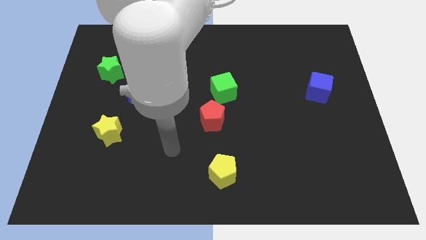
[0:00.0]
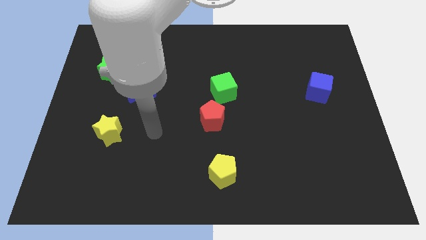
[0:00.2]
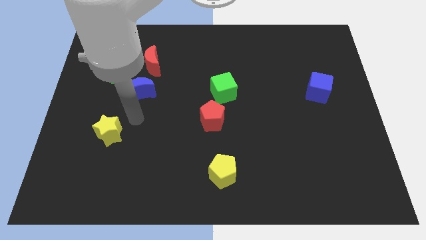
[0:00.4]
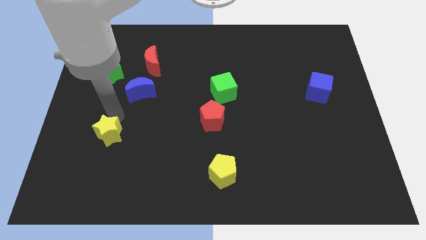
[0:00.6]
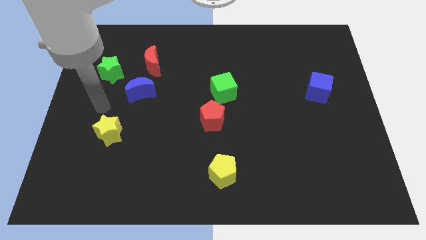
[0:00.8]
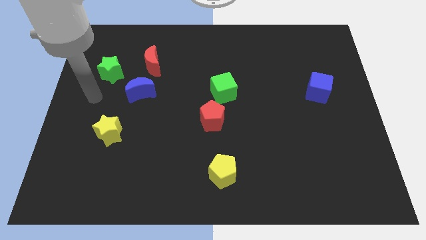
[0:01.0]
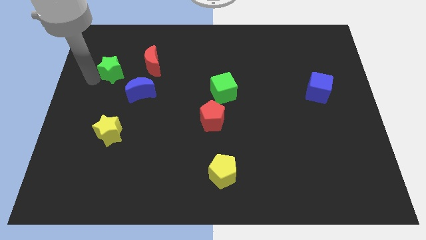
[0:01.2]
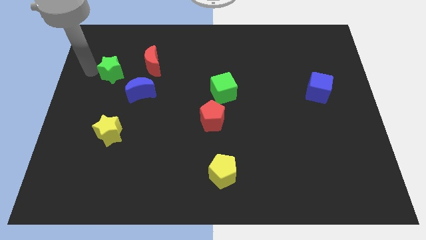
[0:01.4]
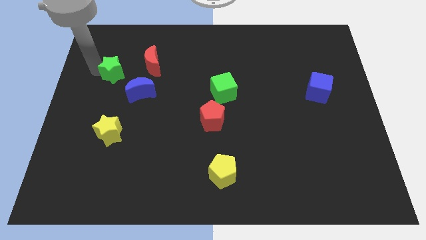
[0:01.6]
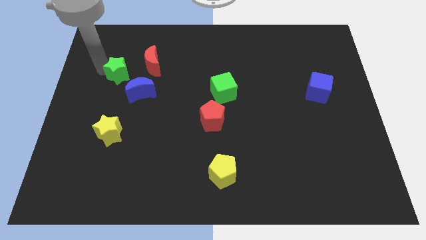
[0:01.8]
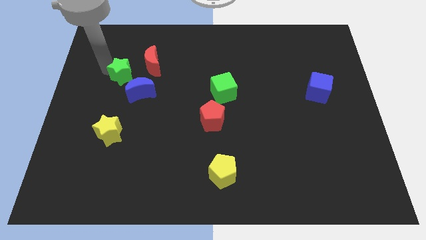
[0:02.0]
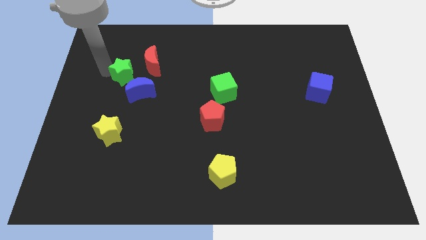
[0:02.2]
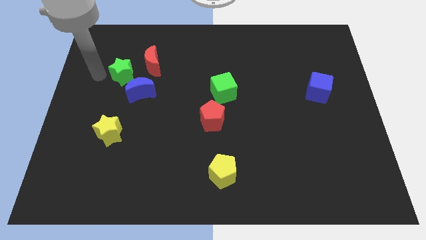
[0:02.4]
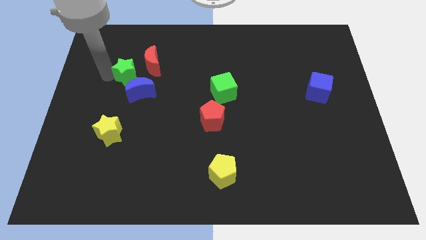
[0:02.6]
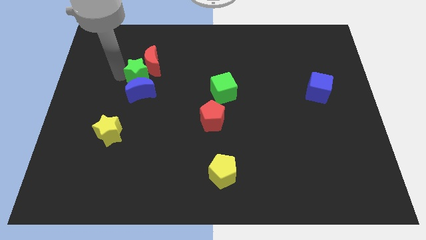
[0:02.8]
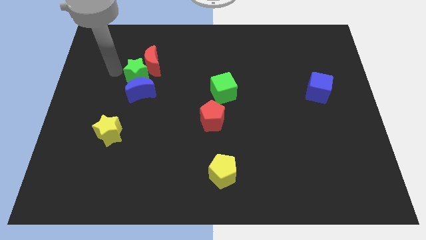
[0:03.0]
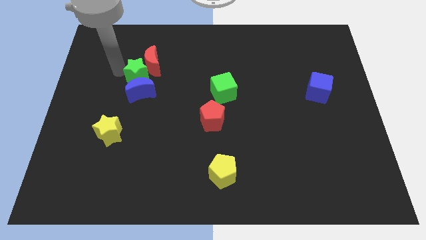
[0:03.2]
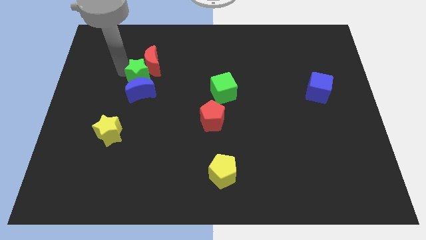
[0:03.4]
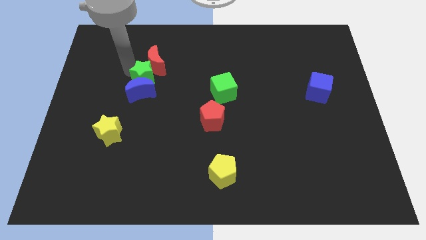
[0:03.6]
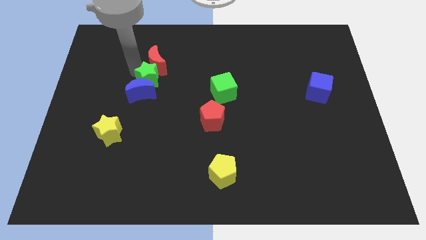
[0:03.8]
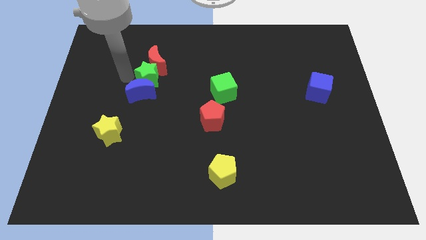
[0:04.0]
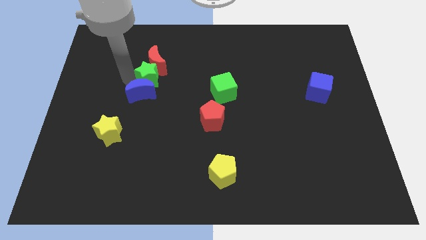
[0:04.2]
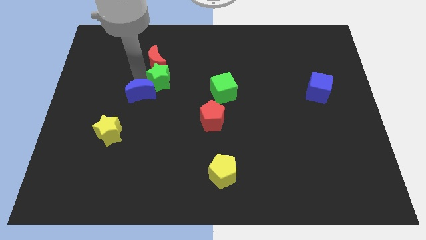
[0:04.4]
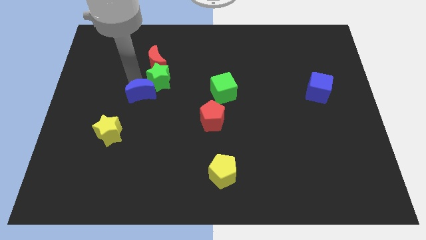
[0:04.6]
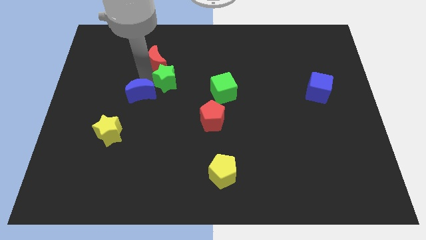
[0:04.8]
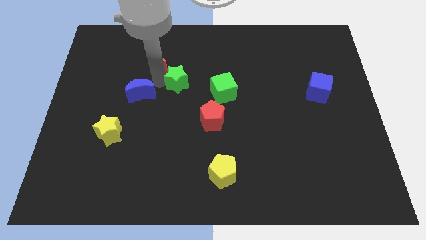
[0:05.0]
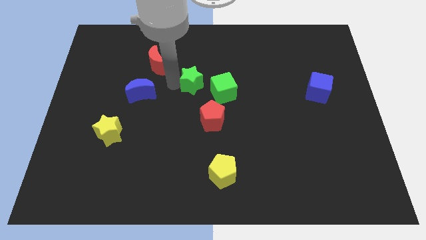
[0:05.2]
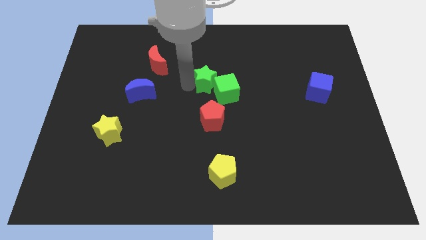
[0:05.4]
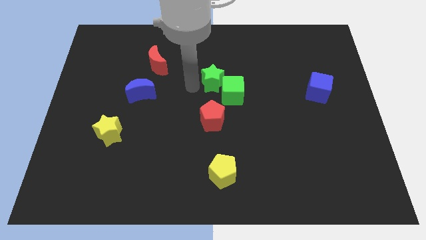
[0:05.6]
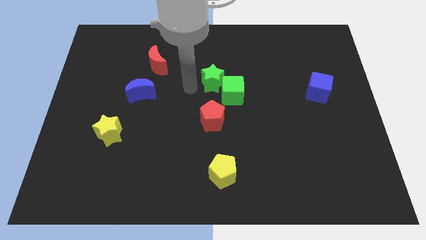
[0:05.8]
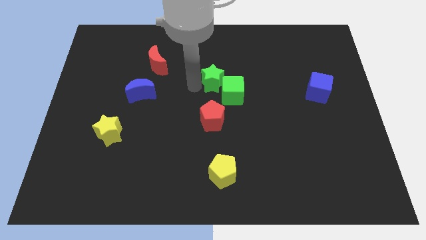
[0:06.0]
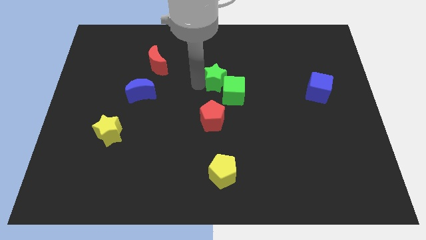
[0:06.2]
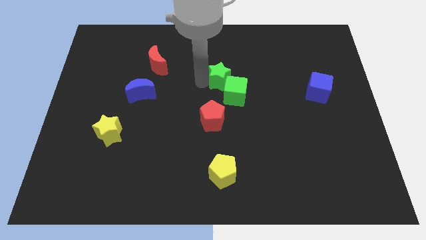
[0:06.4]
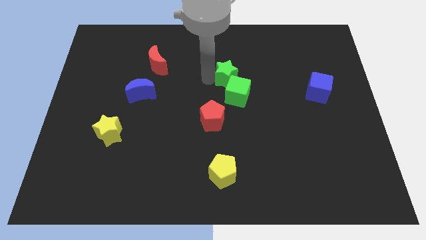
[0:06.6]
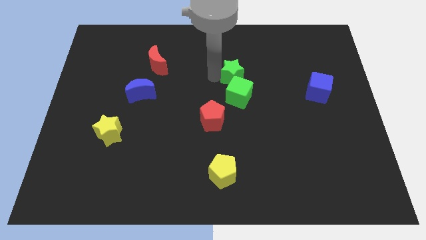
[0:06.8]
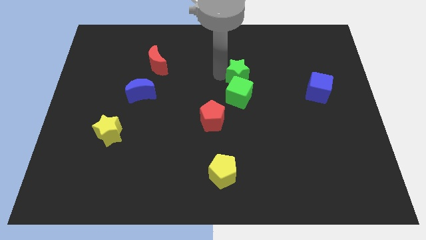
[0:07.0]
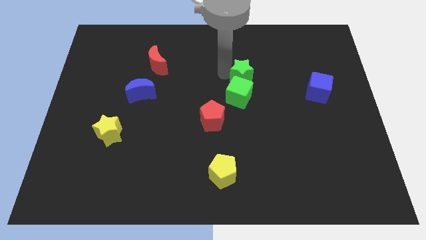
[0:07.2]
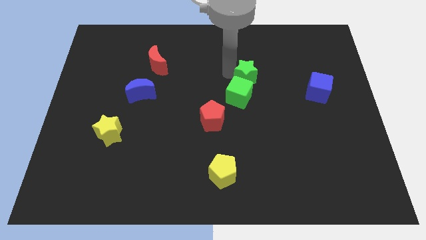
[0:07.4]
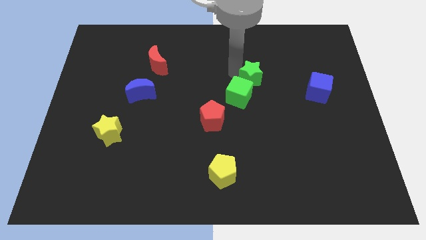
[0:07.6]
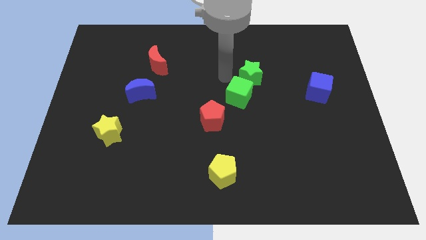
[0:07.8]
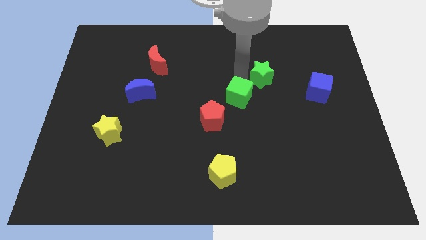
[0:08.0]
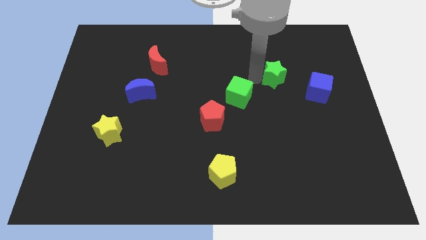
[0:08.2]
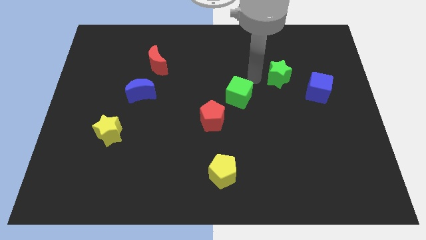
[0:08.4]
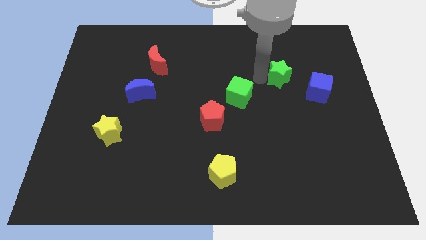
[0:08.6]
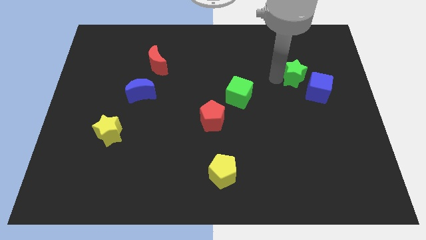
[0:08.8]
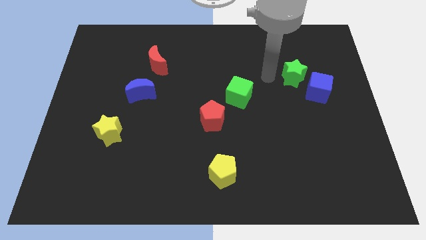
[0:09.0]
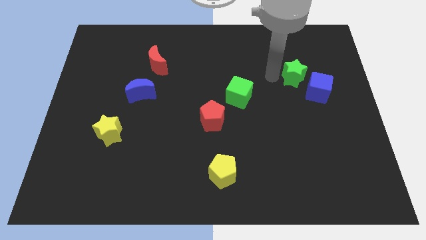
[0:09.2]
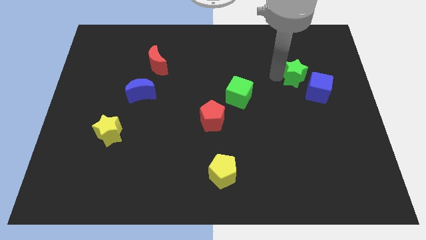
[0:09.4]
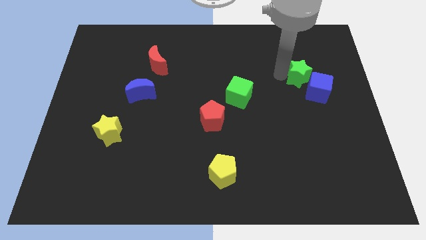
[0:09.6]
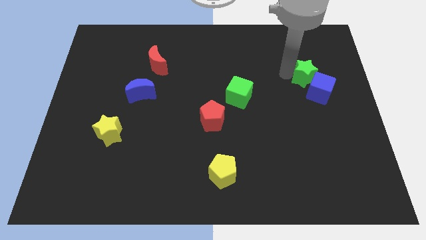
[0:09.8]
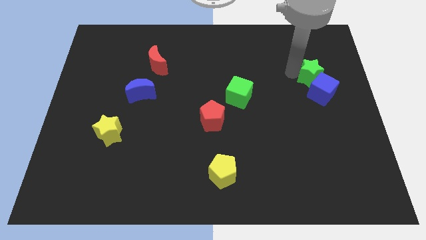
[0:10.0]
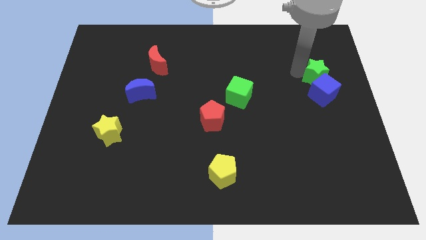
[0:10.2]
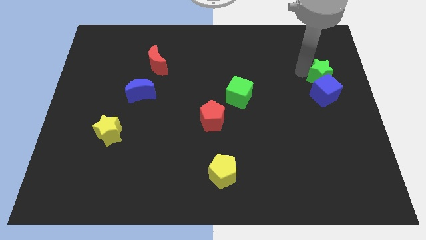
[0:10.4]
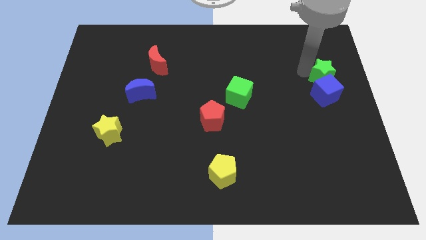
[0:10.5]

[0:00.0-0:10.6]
push the green star to the right side of the board

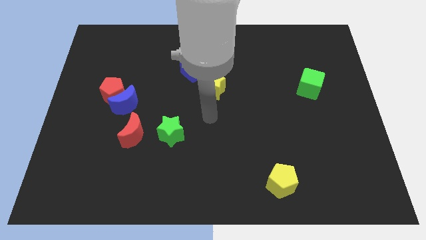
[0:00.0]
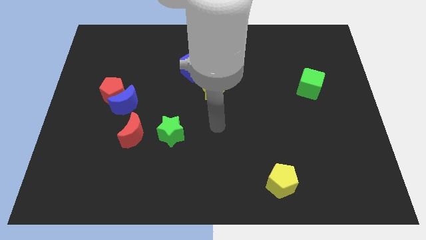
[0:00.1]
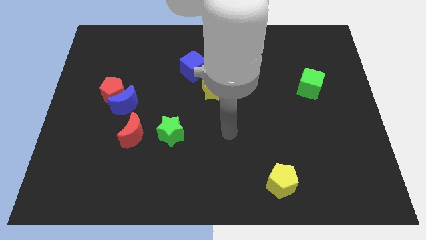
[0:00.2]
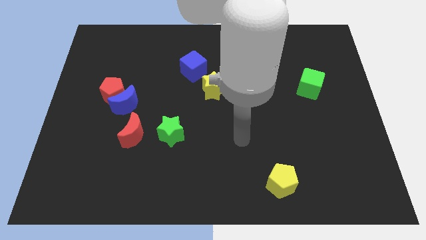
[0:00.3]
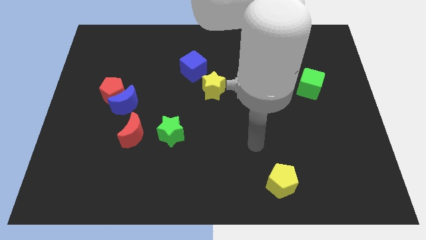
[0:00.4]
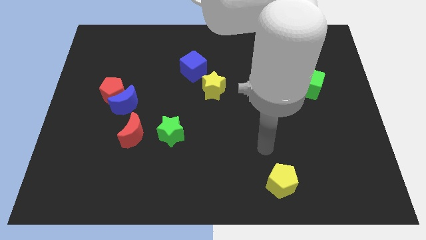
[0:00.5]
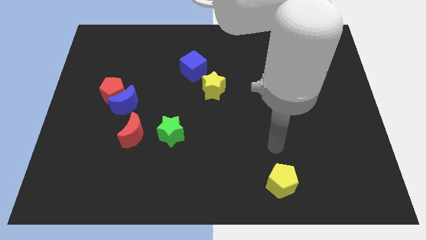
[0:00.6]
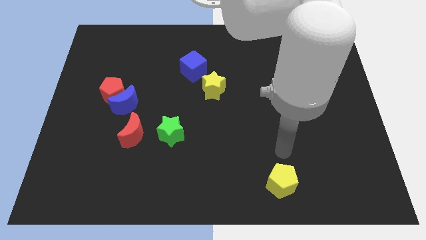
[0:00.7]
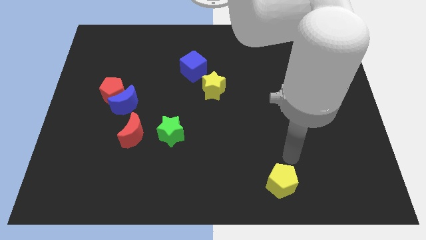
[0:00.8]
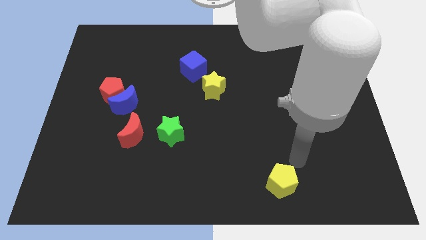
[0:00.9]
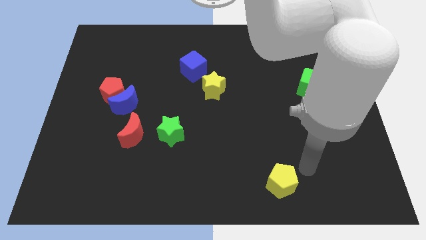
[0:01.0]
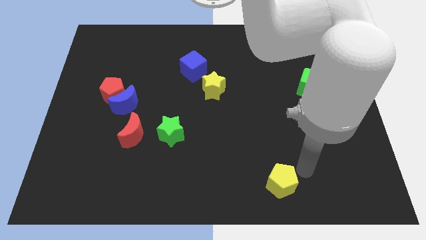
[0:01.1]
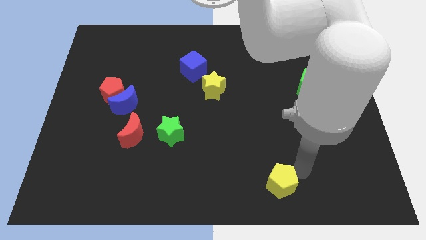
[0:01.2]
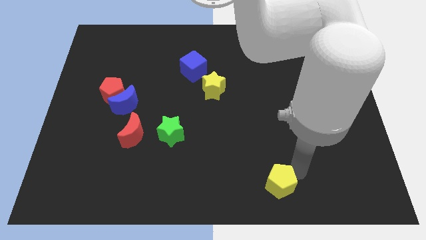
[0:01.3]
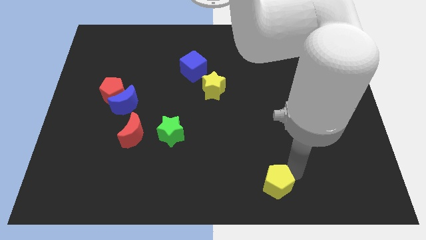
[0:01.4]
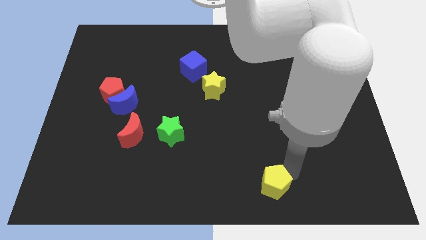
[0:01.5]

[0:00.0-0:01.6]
push the yellow pentagon to the bottom side
